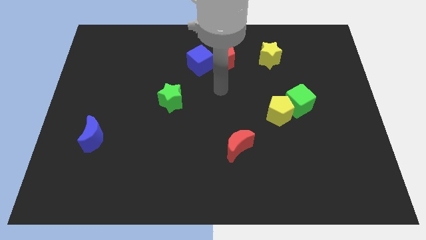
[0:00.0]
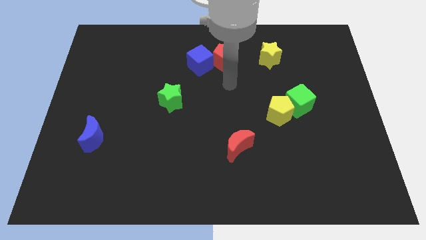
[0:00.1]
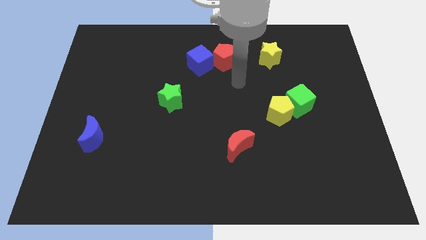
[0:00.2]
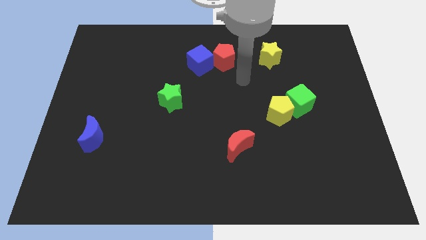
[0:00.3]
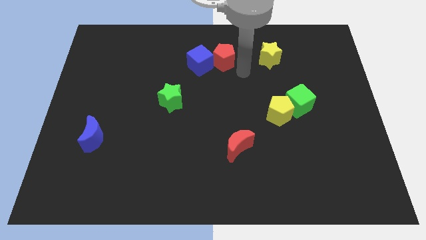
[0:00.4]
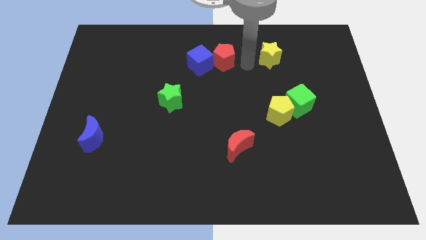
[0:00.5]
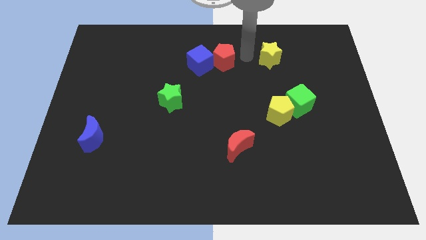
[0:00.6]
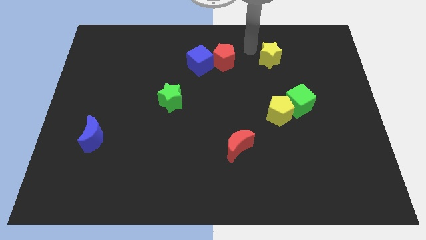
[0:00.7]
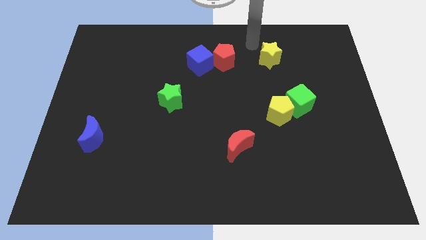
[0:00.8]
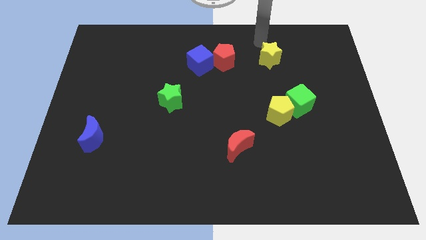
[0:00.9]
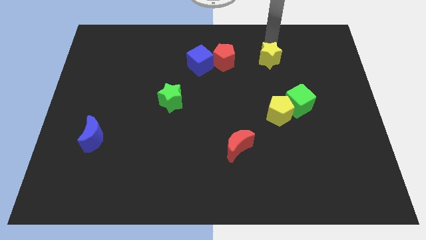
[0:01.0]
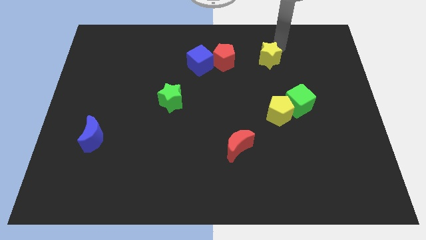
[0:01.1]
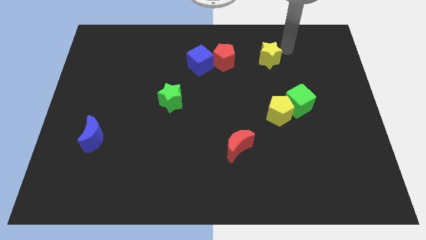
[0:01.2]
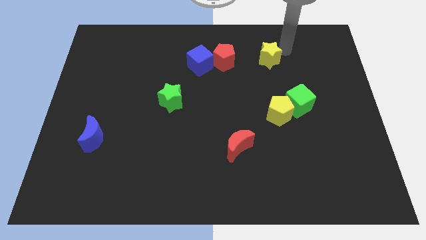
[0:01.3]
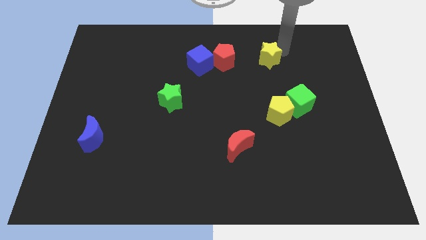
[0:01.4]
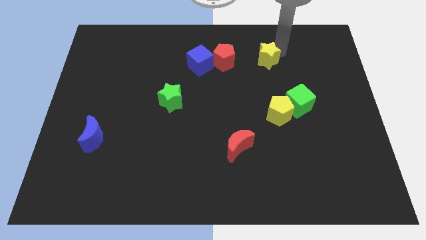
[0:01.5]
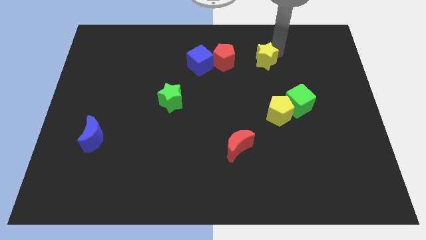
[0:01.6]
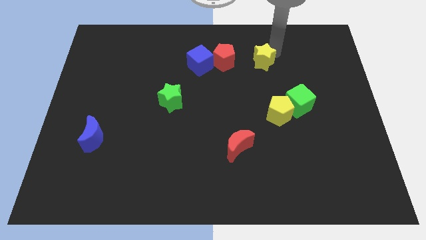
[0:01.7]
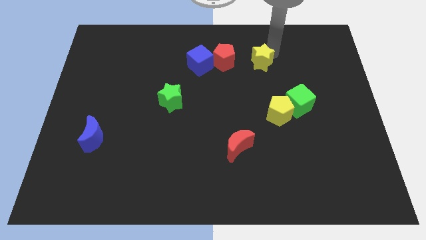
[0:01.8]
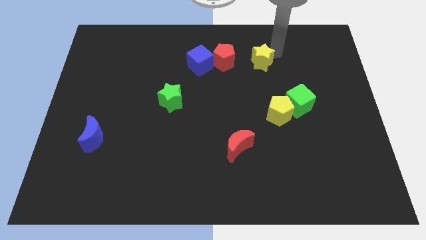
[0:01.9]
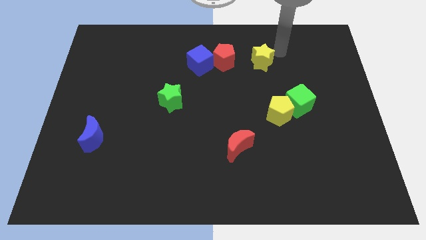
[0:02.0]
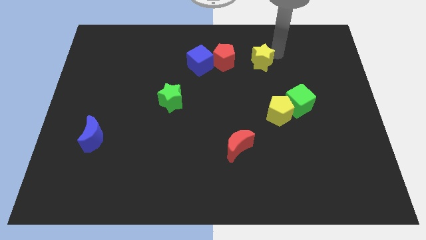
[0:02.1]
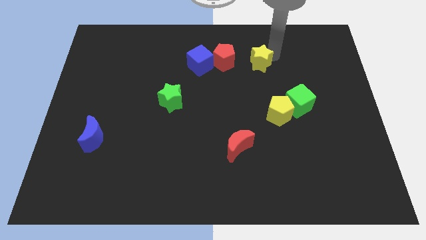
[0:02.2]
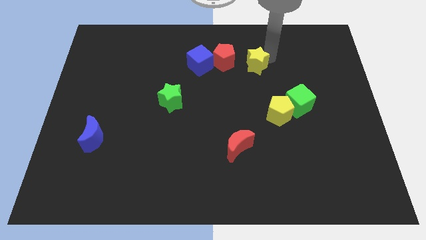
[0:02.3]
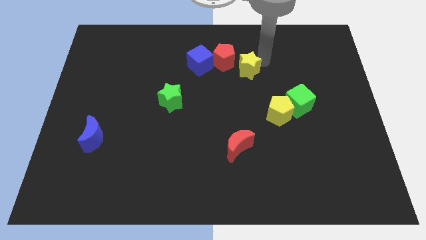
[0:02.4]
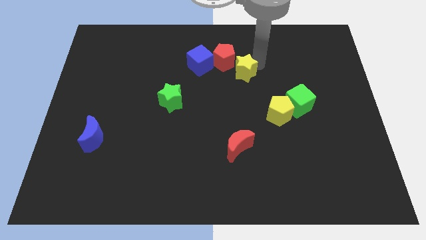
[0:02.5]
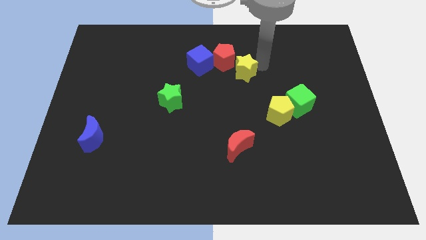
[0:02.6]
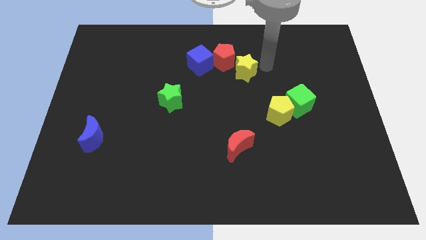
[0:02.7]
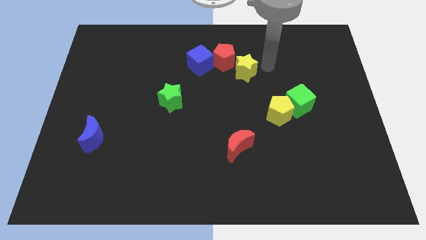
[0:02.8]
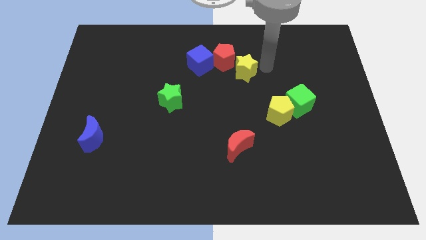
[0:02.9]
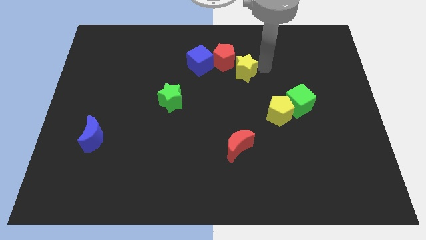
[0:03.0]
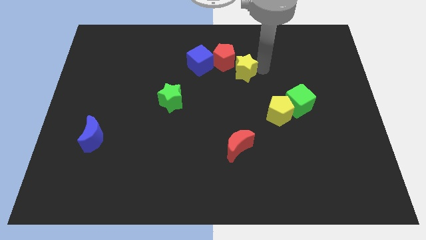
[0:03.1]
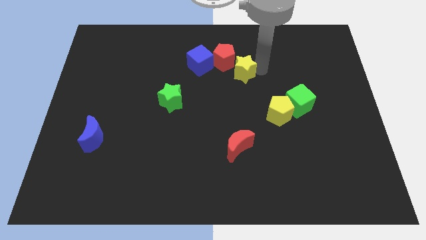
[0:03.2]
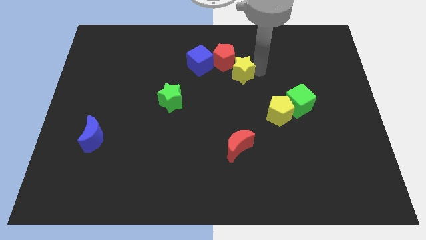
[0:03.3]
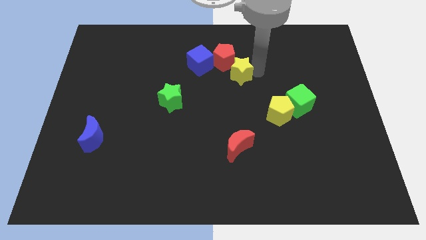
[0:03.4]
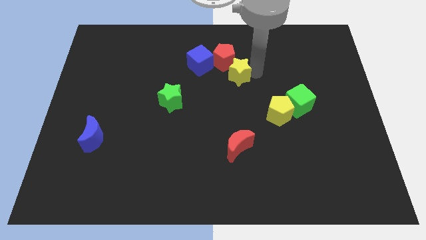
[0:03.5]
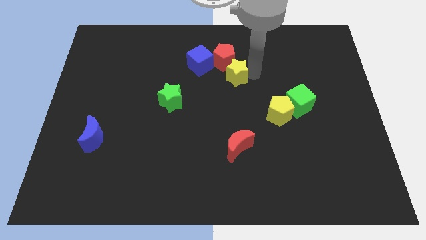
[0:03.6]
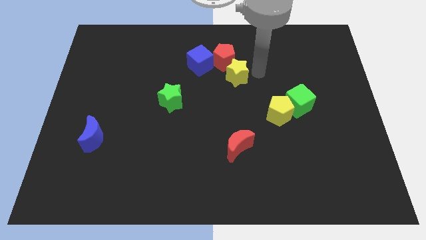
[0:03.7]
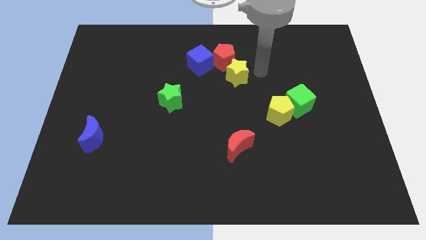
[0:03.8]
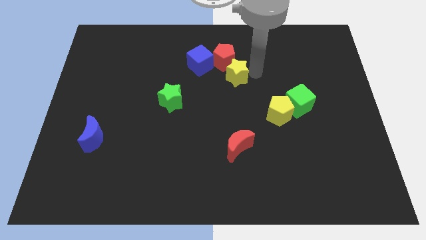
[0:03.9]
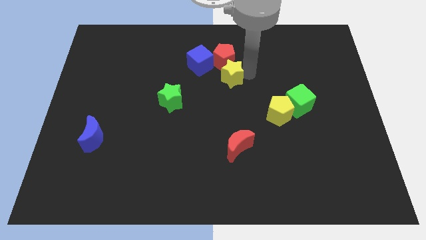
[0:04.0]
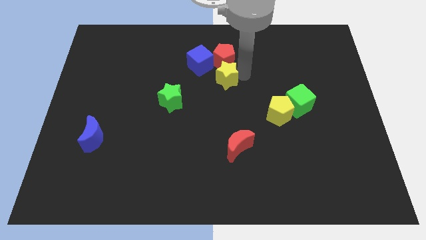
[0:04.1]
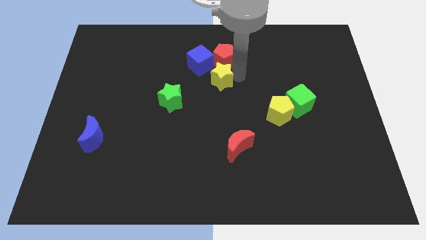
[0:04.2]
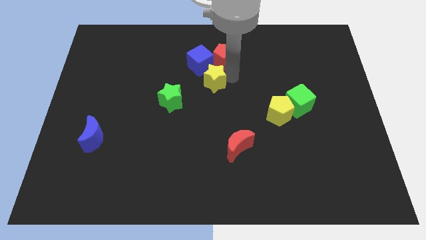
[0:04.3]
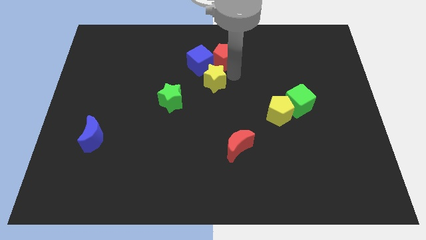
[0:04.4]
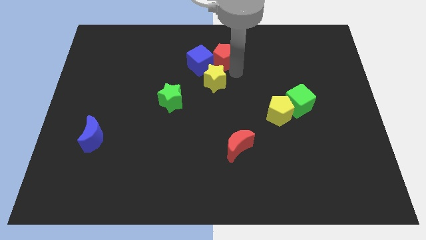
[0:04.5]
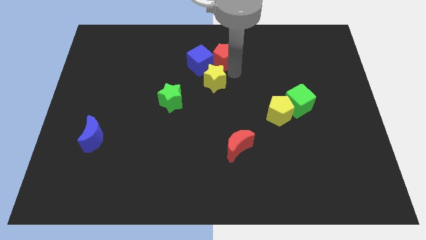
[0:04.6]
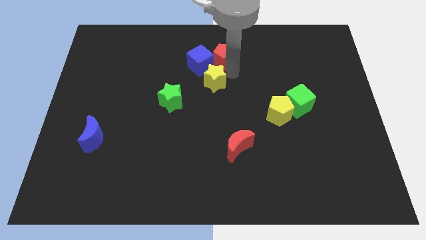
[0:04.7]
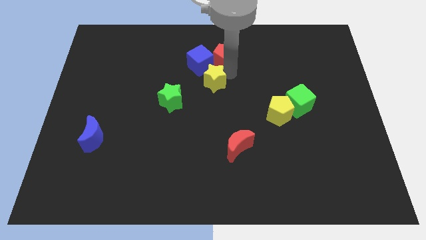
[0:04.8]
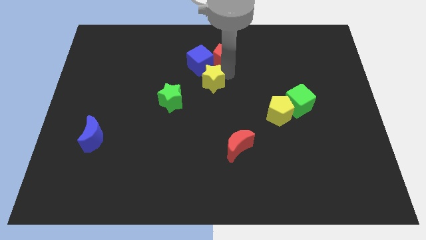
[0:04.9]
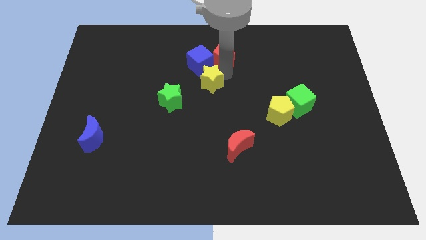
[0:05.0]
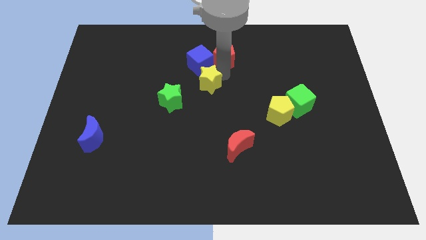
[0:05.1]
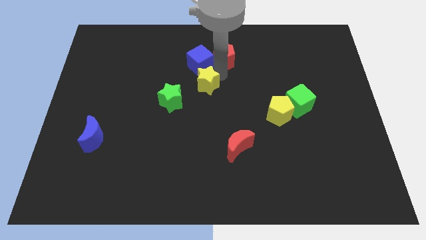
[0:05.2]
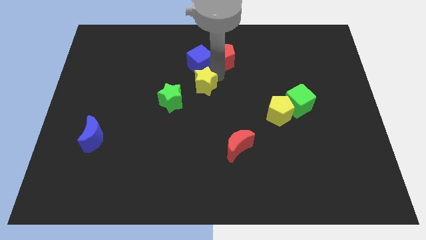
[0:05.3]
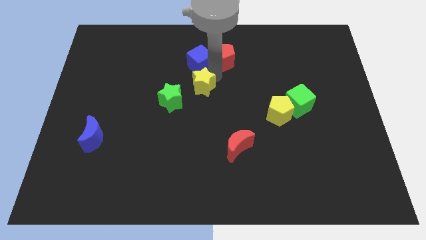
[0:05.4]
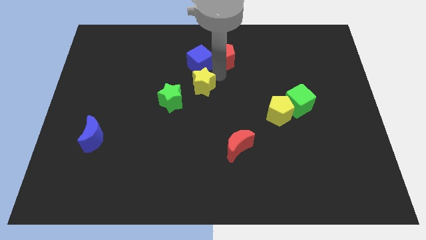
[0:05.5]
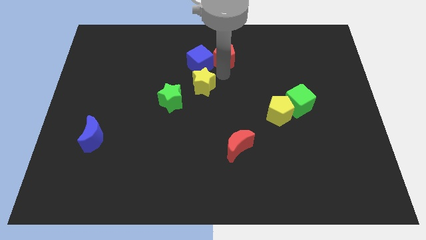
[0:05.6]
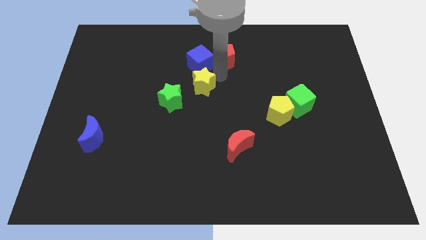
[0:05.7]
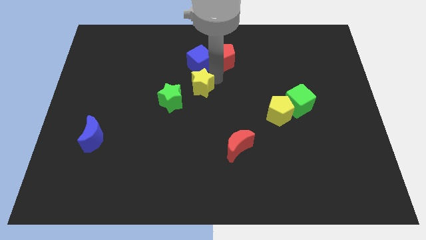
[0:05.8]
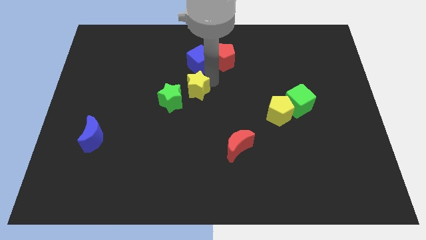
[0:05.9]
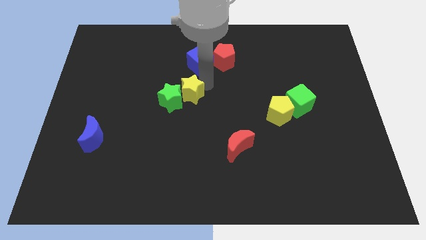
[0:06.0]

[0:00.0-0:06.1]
move the yellow star to the green star

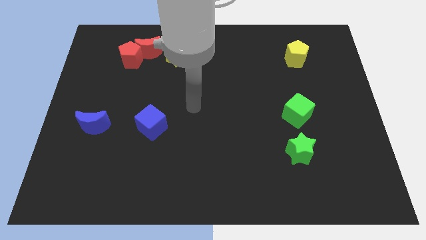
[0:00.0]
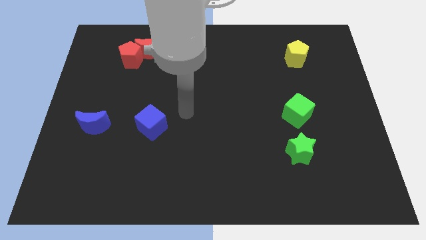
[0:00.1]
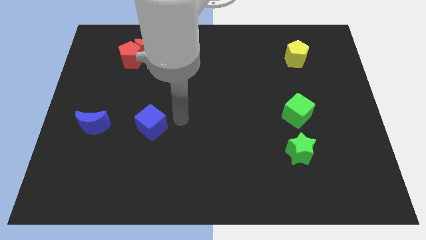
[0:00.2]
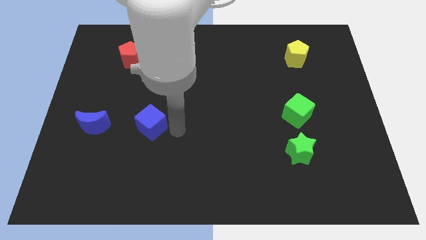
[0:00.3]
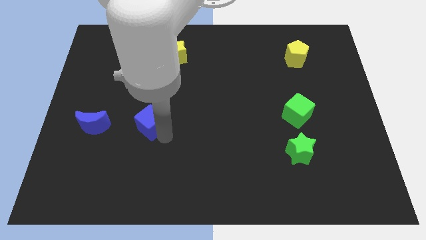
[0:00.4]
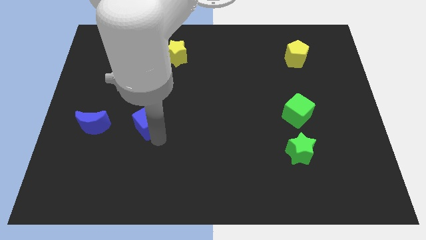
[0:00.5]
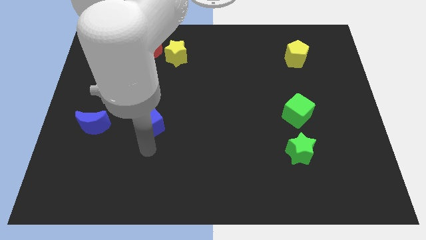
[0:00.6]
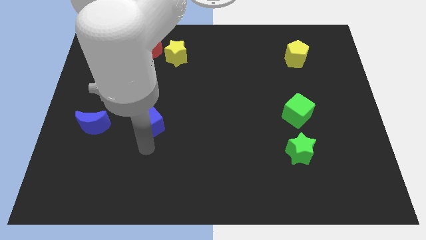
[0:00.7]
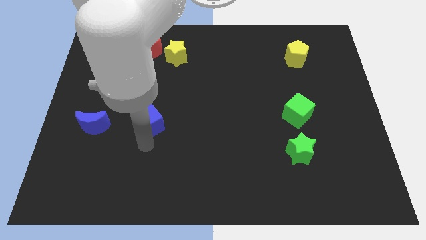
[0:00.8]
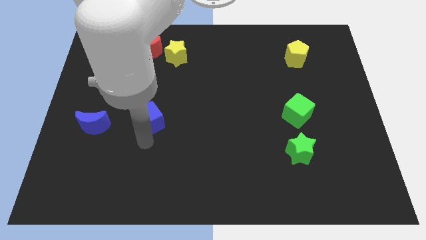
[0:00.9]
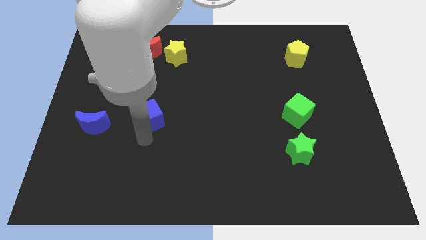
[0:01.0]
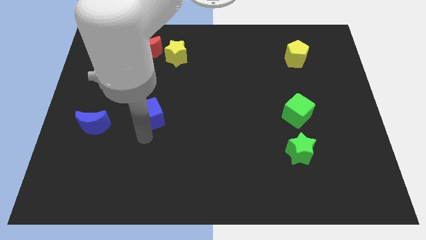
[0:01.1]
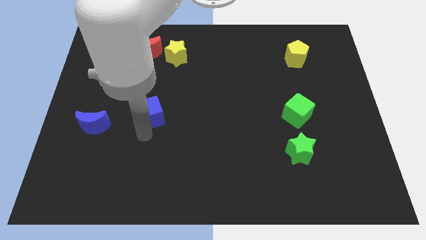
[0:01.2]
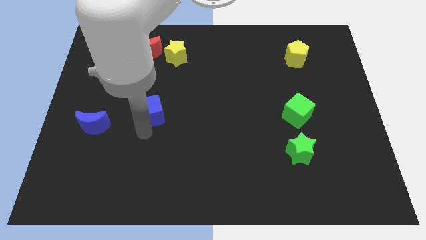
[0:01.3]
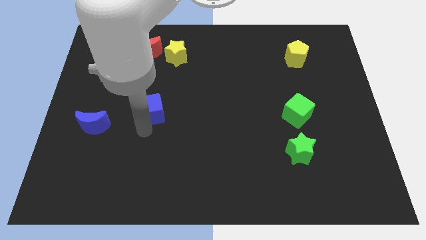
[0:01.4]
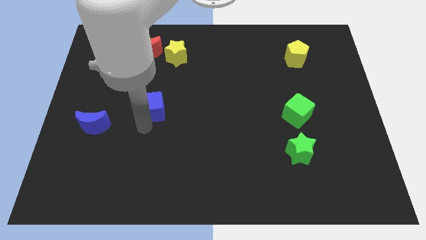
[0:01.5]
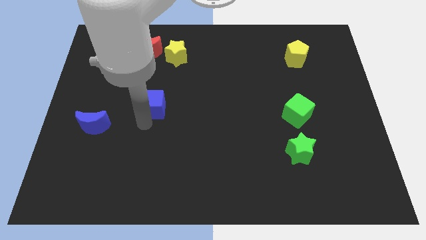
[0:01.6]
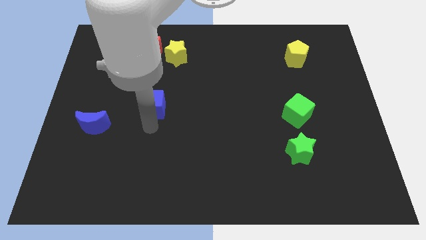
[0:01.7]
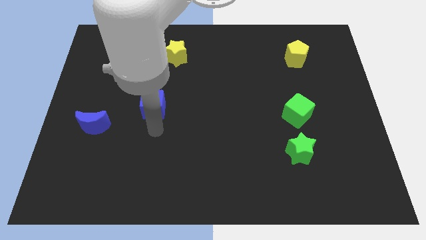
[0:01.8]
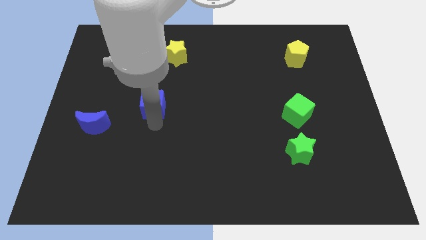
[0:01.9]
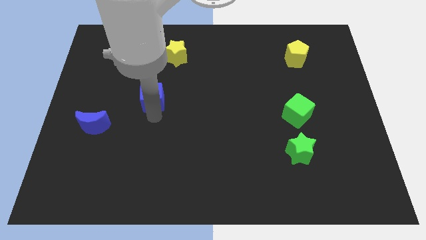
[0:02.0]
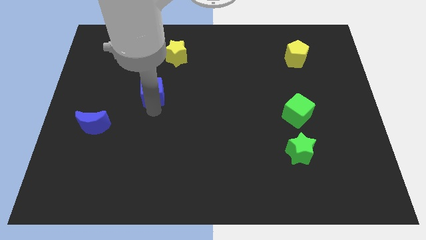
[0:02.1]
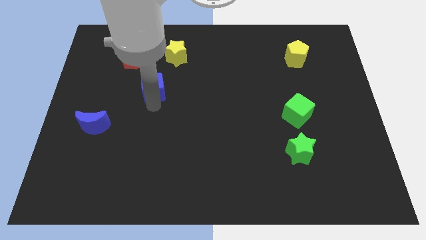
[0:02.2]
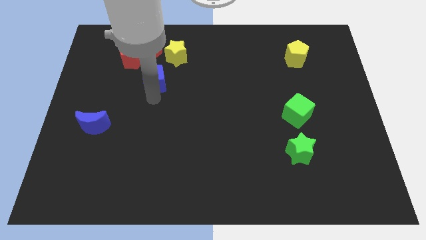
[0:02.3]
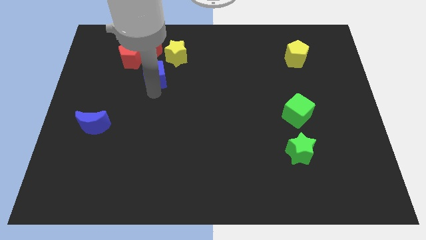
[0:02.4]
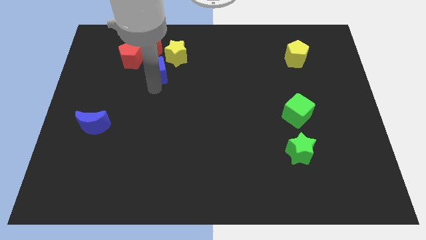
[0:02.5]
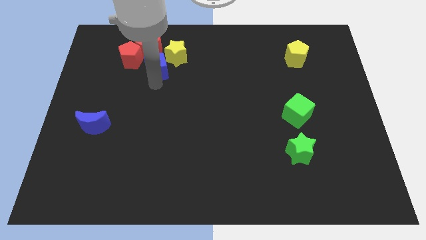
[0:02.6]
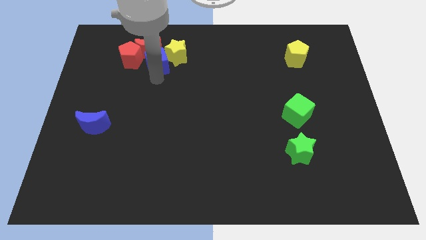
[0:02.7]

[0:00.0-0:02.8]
move the blue cube towards the red moon
